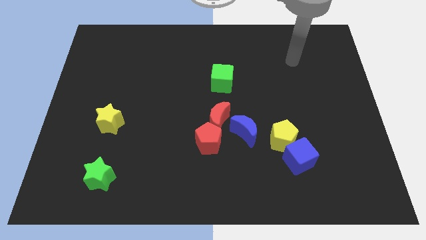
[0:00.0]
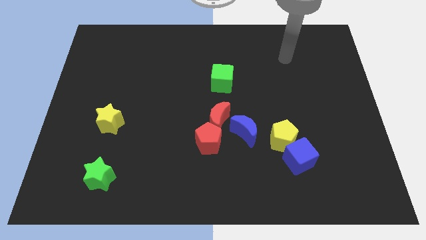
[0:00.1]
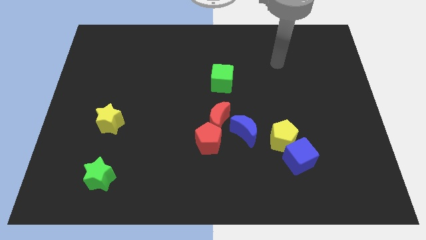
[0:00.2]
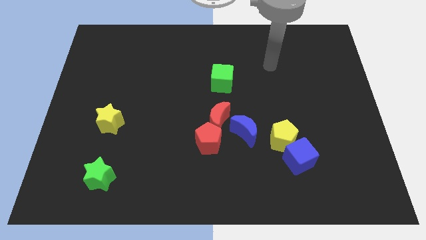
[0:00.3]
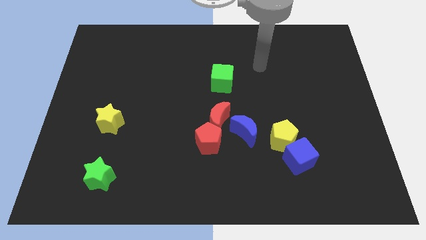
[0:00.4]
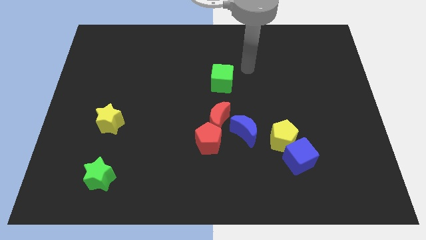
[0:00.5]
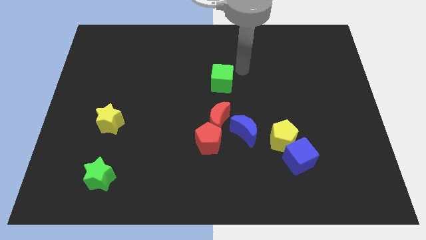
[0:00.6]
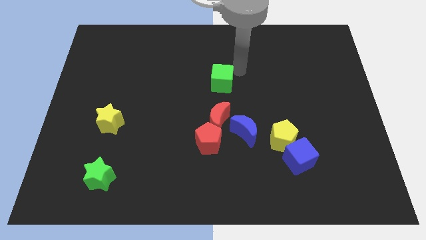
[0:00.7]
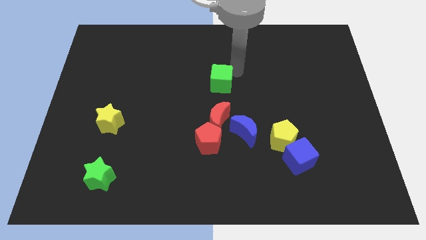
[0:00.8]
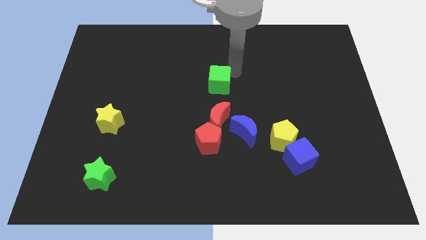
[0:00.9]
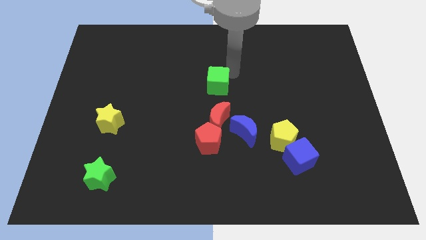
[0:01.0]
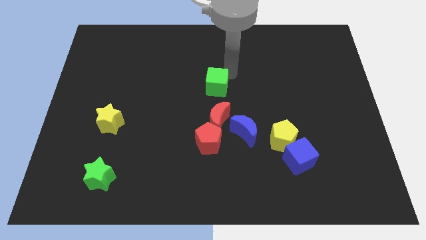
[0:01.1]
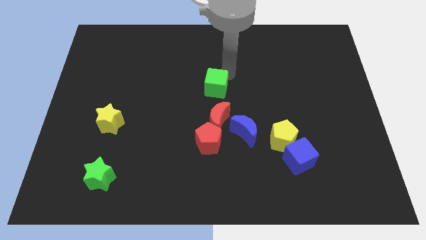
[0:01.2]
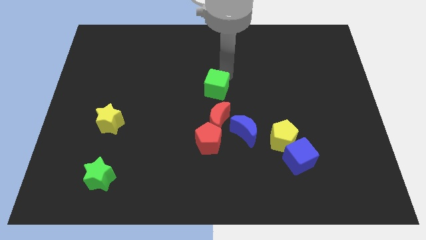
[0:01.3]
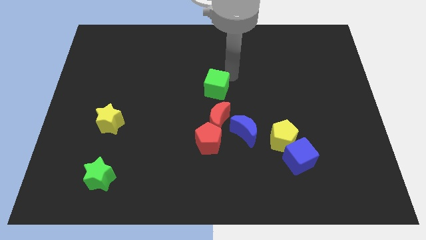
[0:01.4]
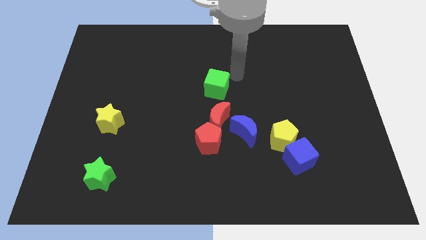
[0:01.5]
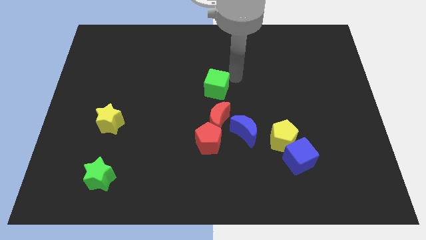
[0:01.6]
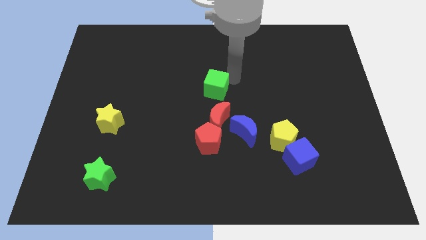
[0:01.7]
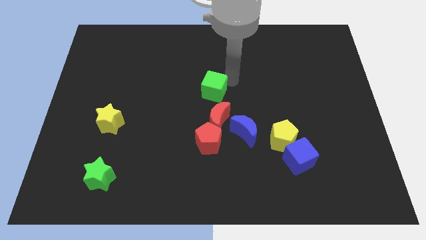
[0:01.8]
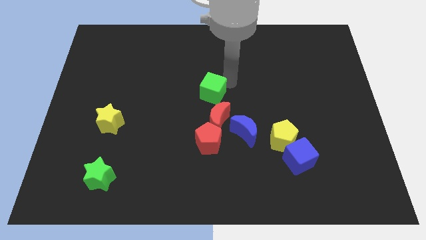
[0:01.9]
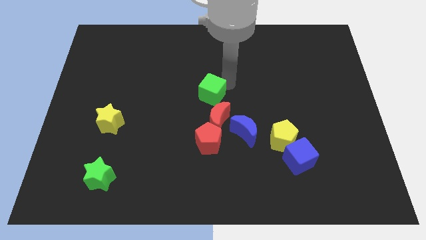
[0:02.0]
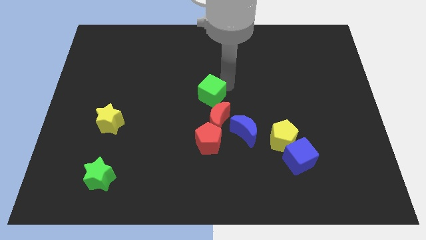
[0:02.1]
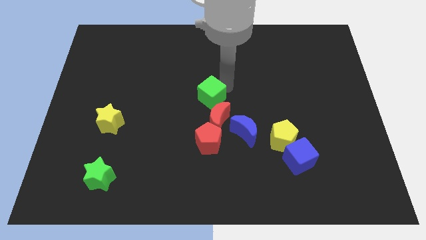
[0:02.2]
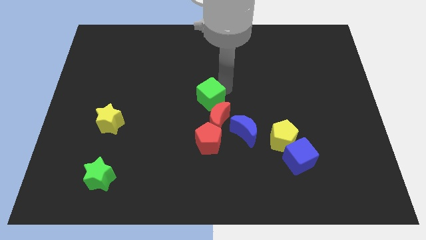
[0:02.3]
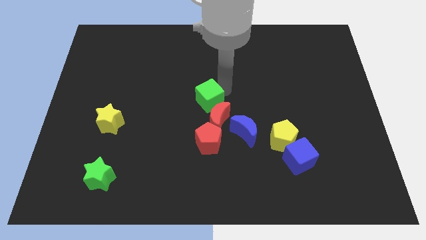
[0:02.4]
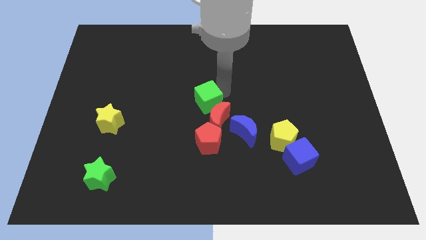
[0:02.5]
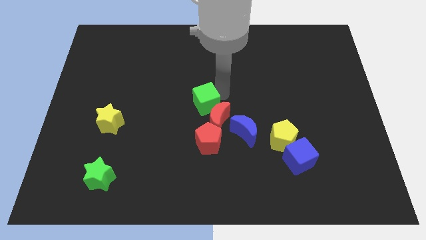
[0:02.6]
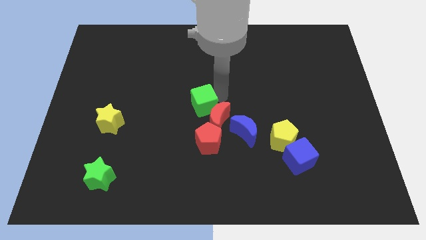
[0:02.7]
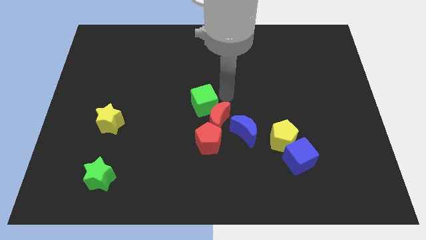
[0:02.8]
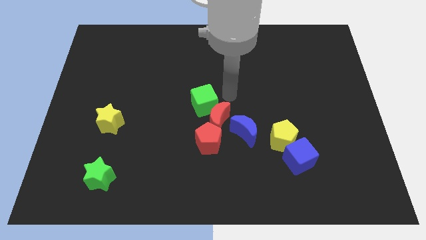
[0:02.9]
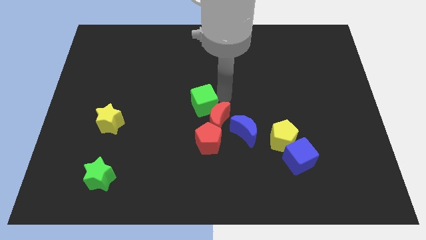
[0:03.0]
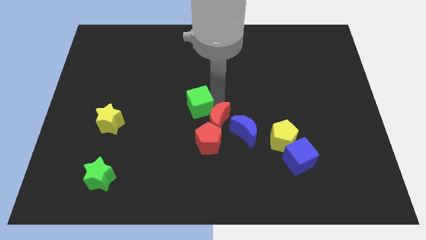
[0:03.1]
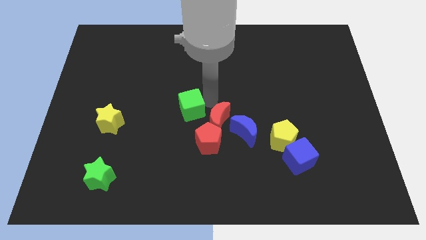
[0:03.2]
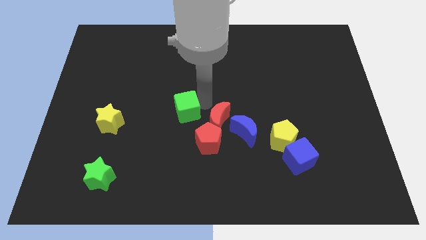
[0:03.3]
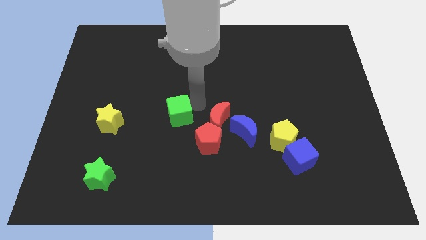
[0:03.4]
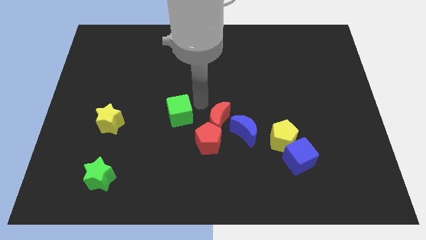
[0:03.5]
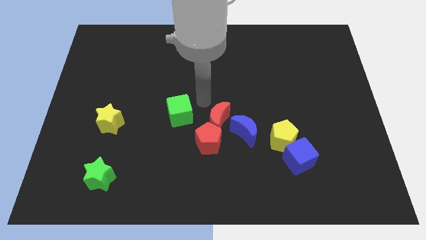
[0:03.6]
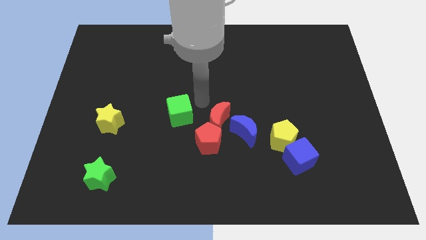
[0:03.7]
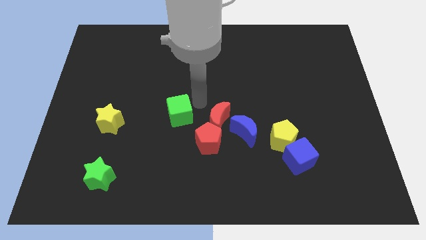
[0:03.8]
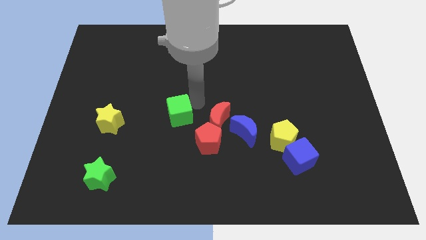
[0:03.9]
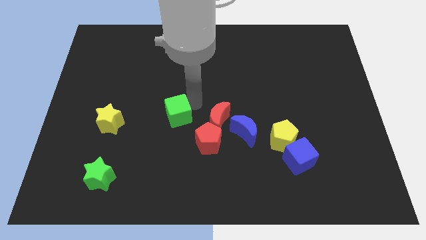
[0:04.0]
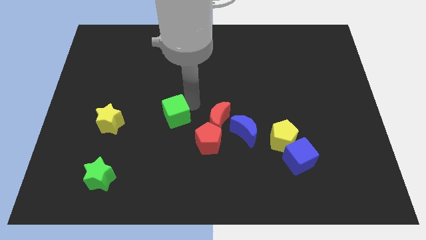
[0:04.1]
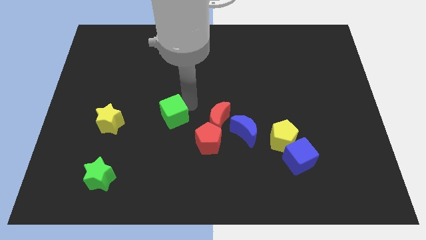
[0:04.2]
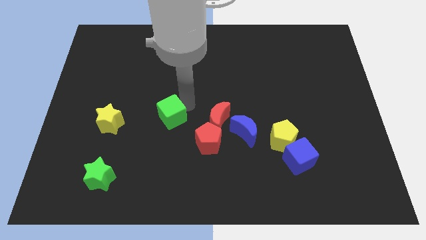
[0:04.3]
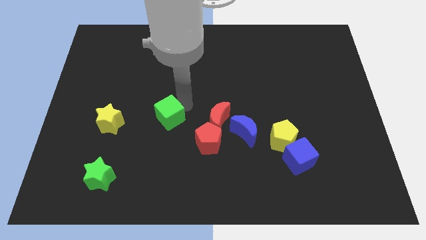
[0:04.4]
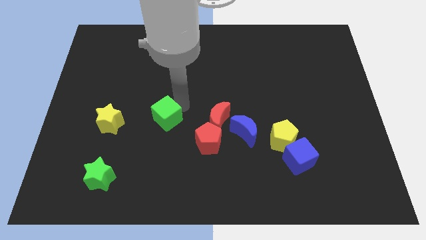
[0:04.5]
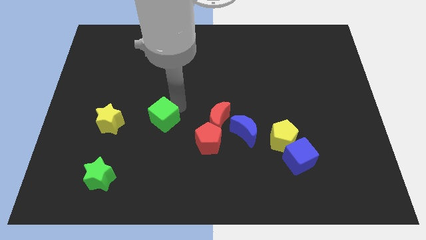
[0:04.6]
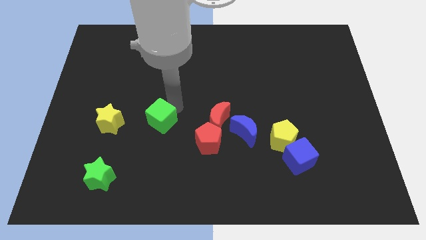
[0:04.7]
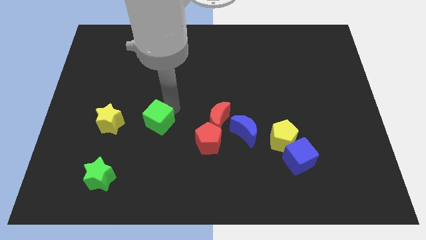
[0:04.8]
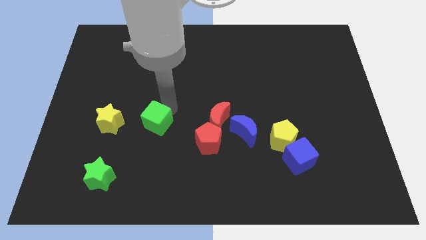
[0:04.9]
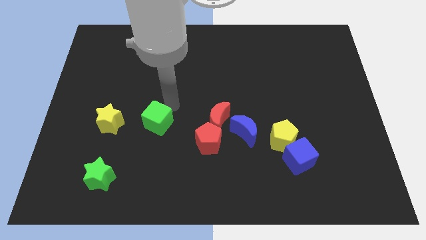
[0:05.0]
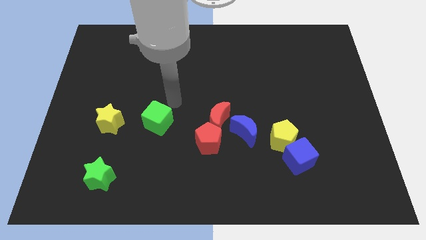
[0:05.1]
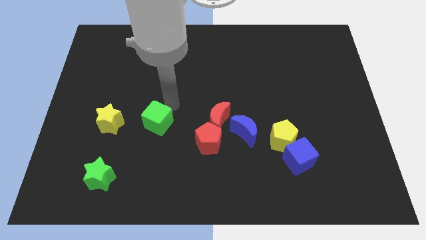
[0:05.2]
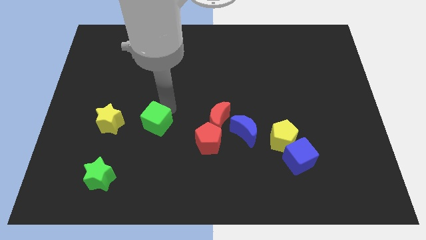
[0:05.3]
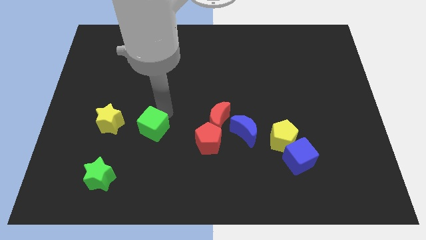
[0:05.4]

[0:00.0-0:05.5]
move the green cube diagonally downwards and left

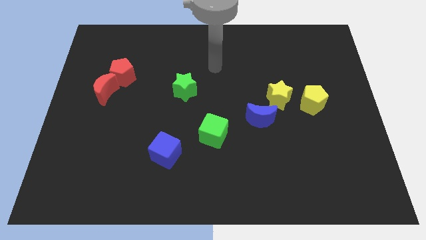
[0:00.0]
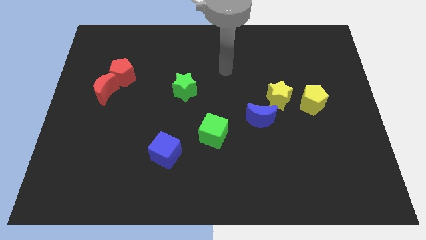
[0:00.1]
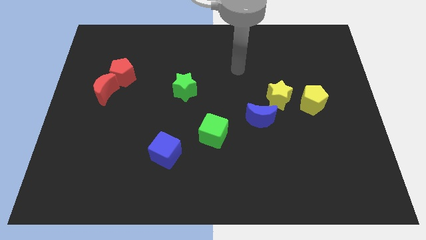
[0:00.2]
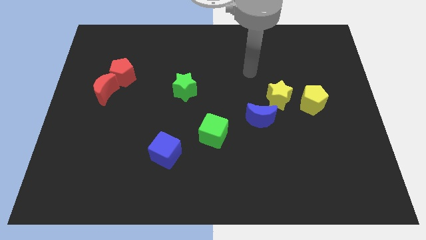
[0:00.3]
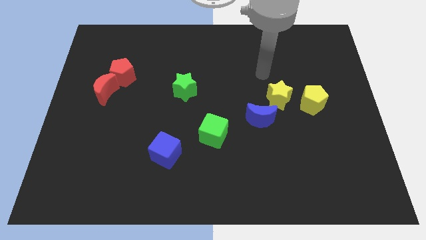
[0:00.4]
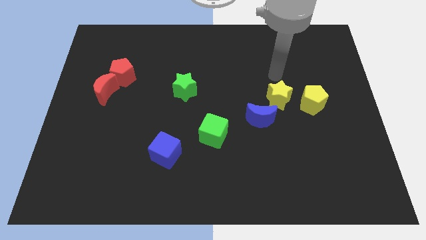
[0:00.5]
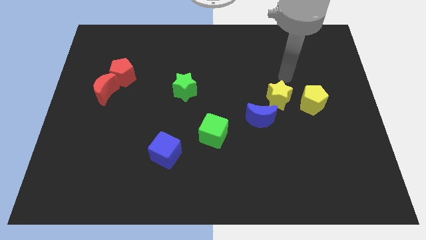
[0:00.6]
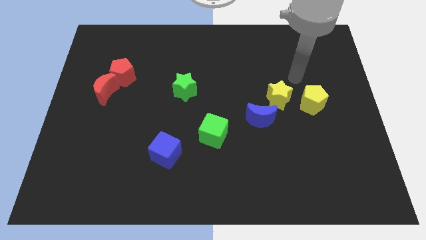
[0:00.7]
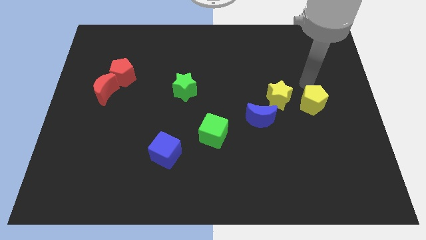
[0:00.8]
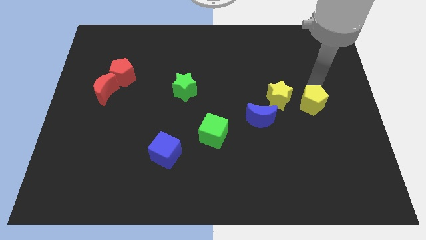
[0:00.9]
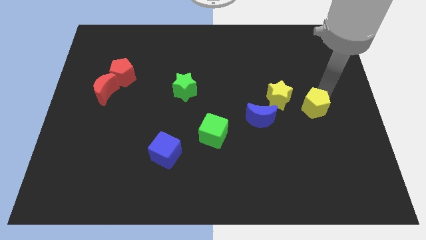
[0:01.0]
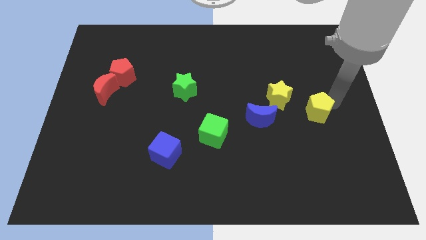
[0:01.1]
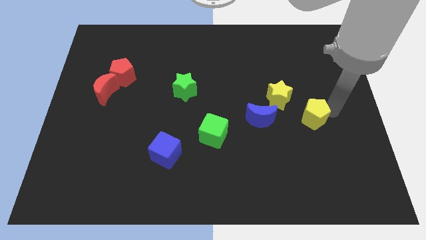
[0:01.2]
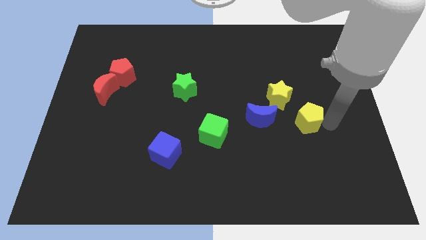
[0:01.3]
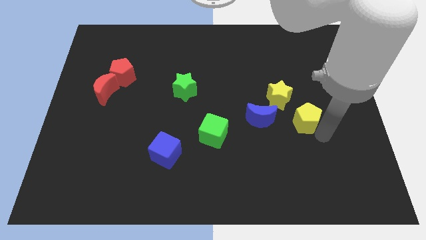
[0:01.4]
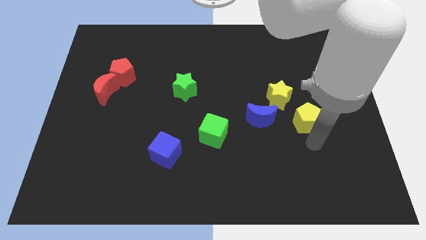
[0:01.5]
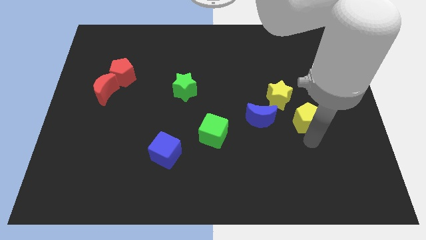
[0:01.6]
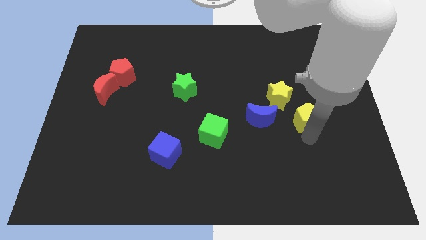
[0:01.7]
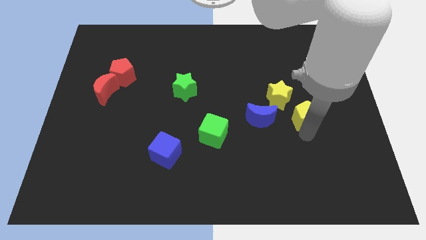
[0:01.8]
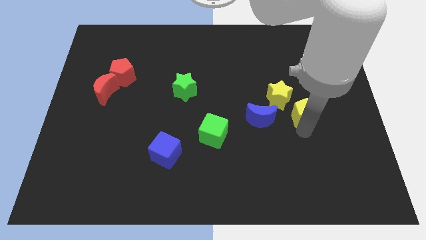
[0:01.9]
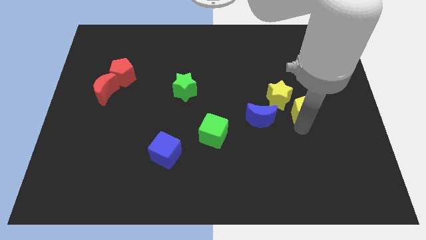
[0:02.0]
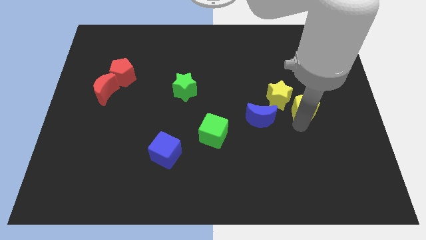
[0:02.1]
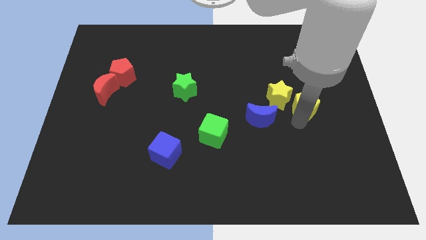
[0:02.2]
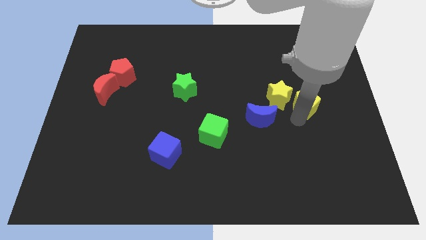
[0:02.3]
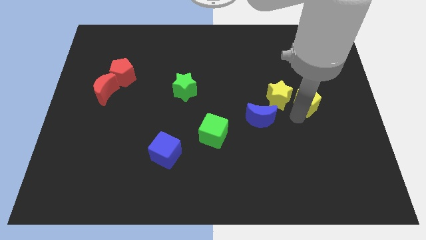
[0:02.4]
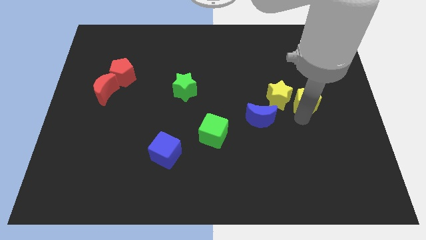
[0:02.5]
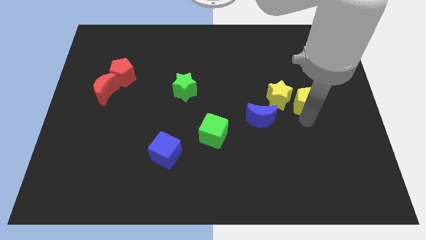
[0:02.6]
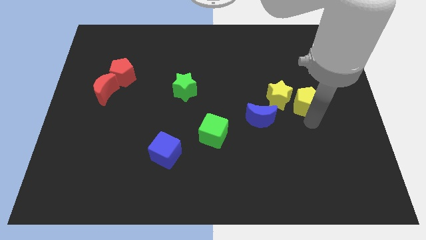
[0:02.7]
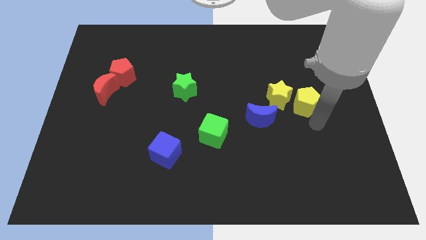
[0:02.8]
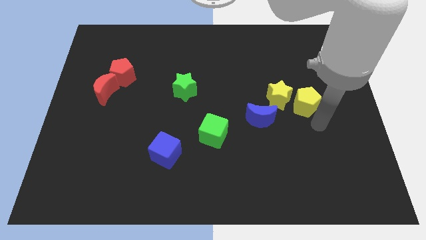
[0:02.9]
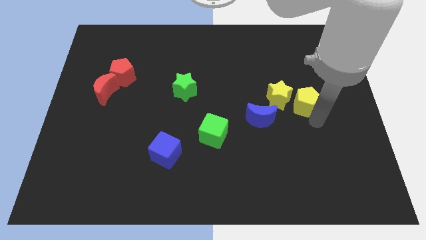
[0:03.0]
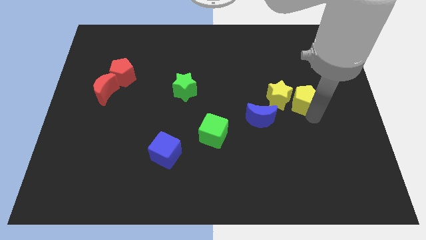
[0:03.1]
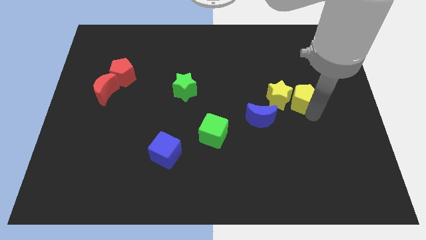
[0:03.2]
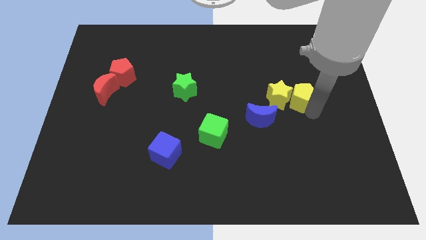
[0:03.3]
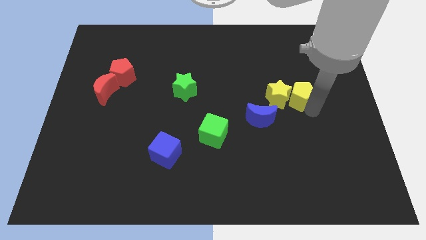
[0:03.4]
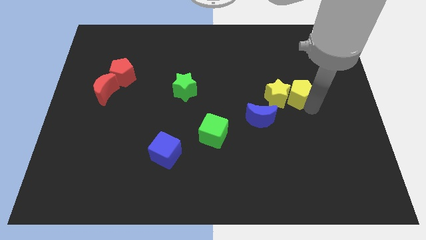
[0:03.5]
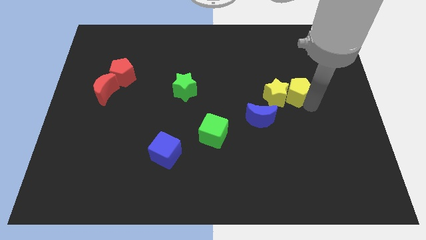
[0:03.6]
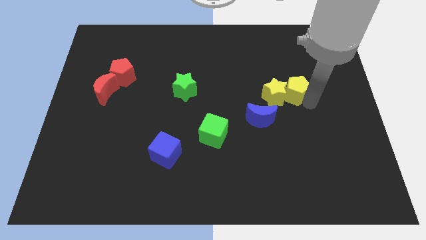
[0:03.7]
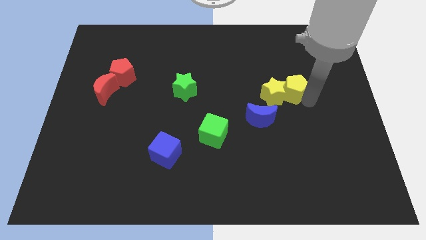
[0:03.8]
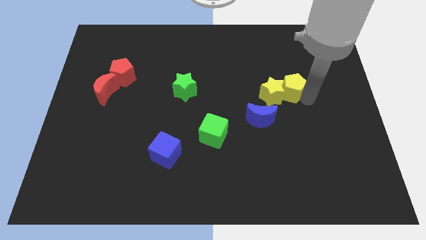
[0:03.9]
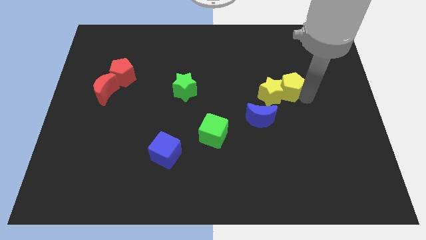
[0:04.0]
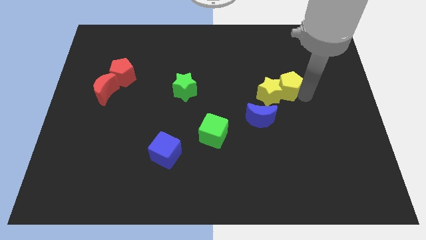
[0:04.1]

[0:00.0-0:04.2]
slightly move the yellow pentagon up and then left
